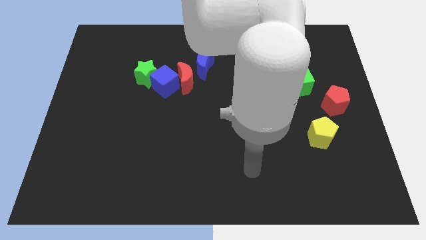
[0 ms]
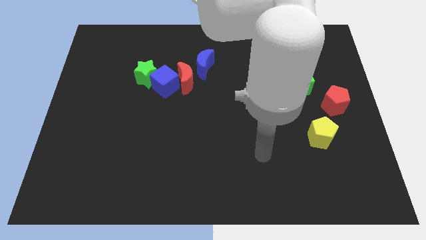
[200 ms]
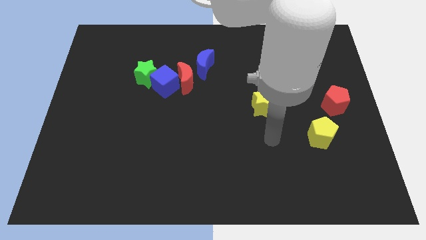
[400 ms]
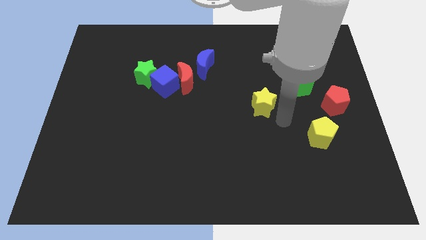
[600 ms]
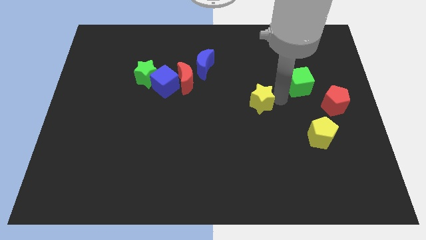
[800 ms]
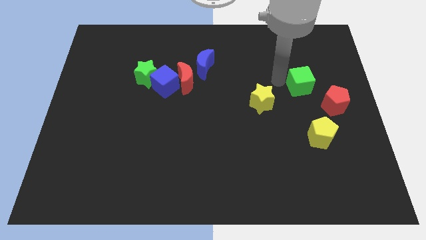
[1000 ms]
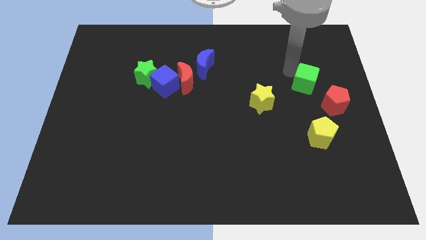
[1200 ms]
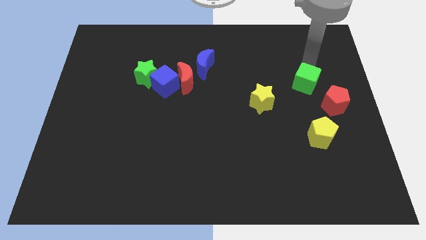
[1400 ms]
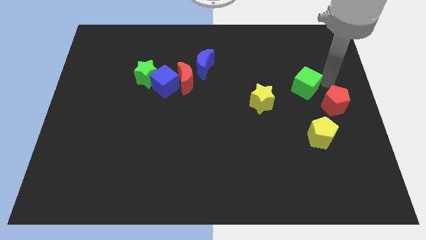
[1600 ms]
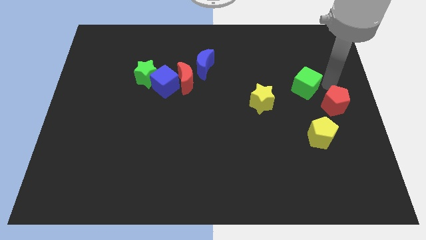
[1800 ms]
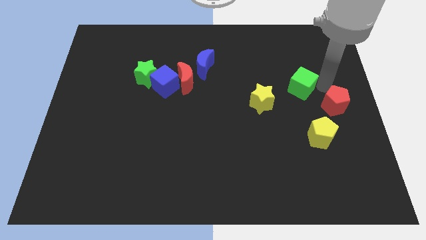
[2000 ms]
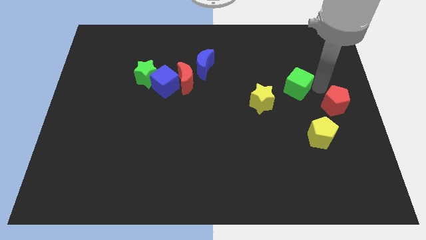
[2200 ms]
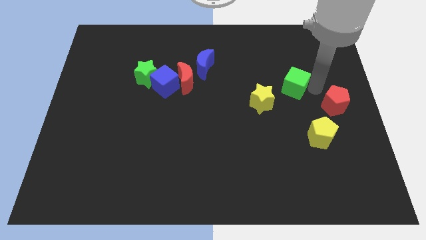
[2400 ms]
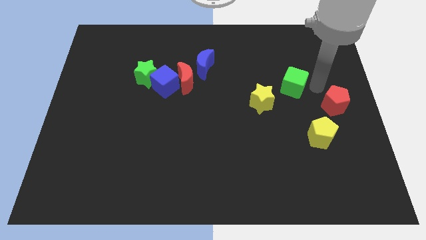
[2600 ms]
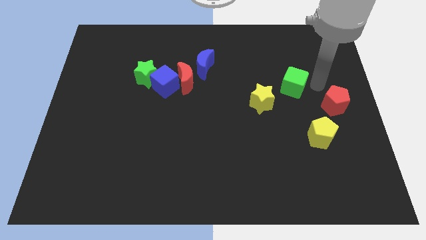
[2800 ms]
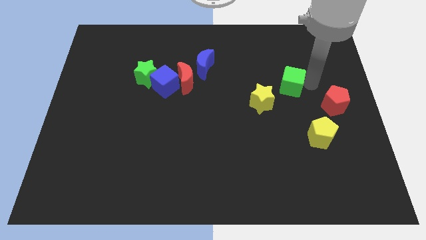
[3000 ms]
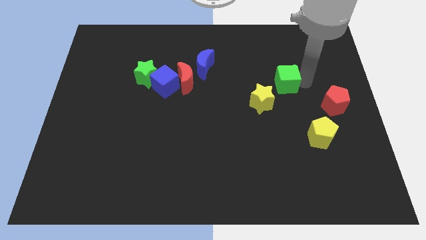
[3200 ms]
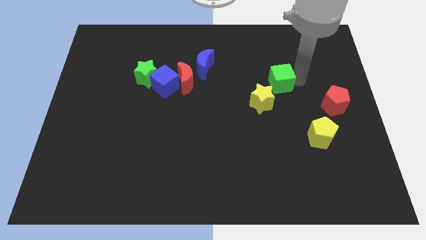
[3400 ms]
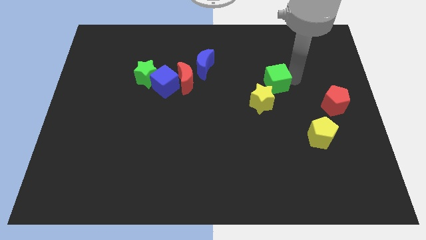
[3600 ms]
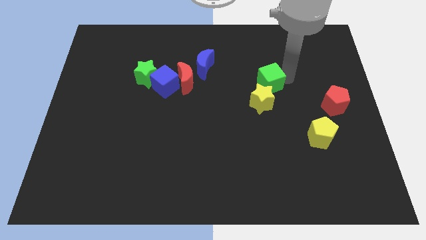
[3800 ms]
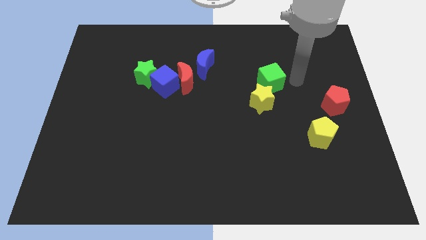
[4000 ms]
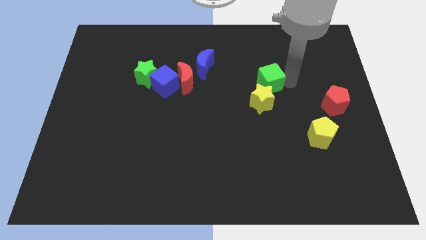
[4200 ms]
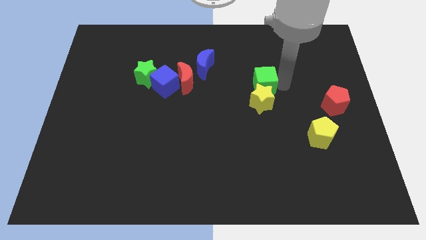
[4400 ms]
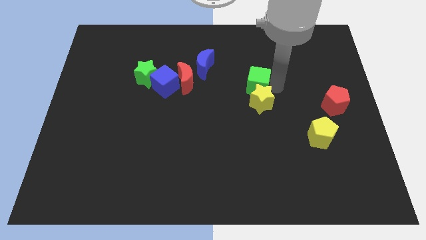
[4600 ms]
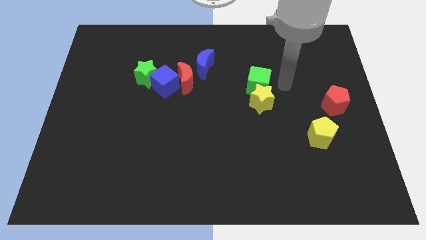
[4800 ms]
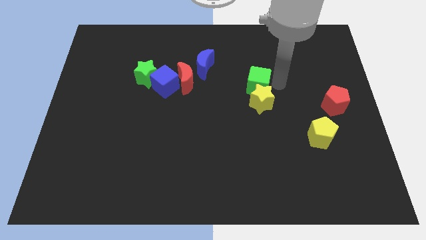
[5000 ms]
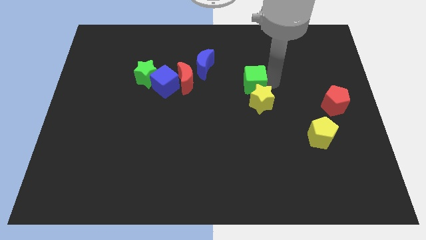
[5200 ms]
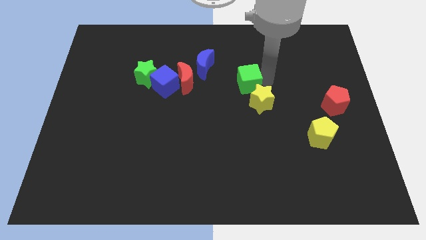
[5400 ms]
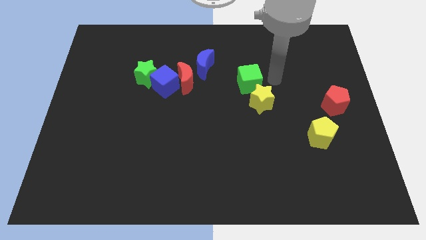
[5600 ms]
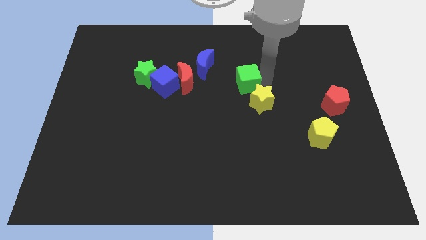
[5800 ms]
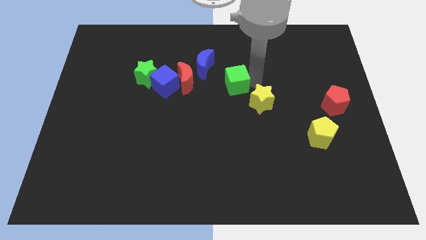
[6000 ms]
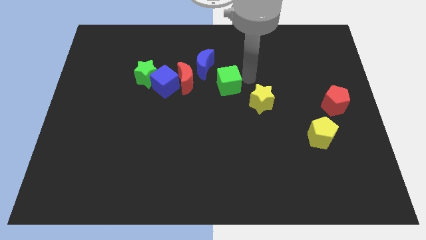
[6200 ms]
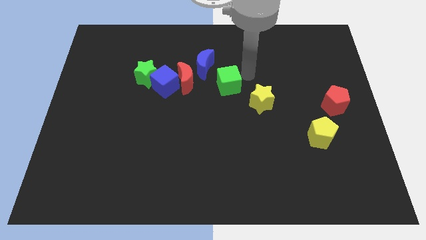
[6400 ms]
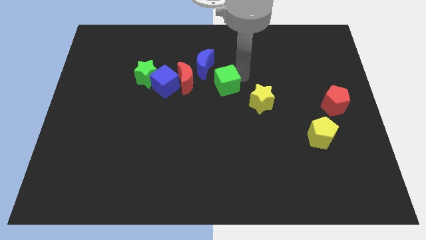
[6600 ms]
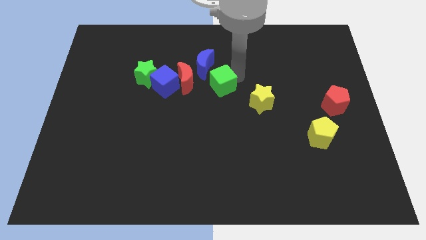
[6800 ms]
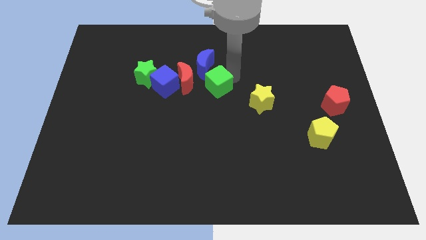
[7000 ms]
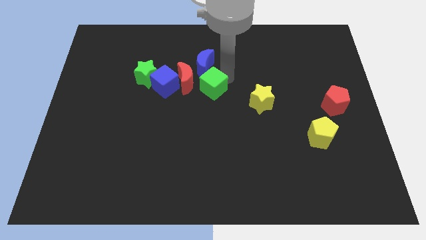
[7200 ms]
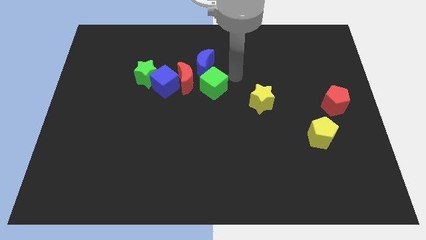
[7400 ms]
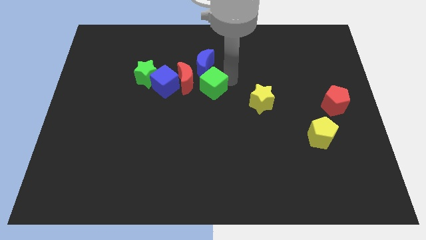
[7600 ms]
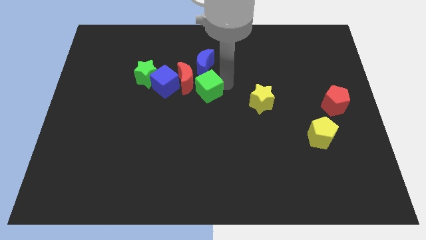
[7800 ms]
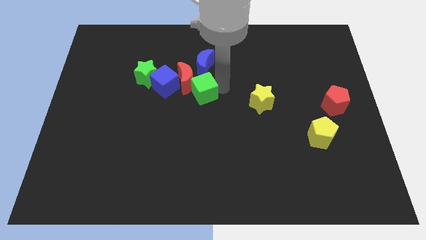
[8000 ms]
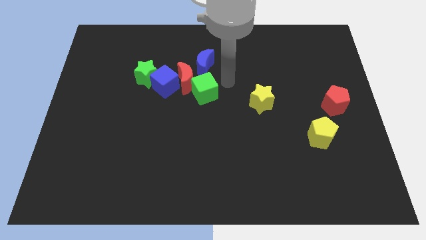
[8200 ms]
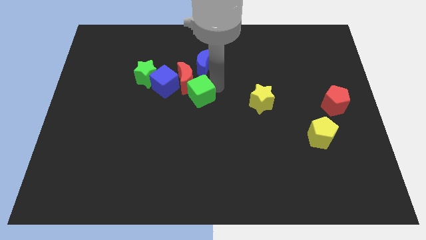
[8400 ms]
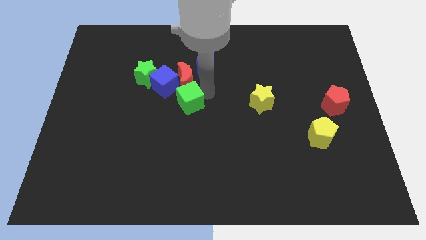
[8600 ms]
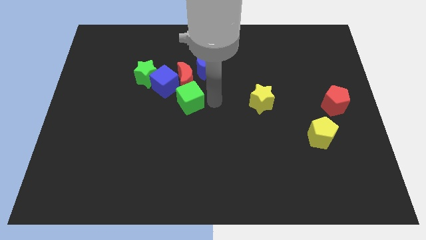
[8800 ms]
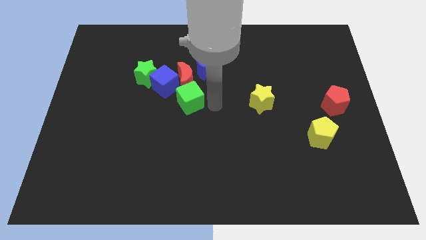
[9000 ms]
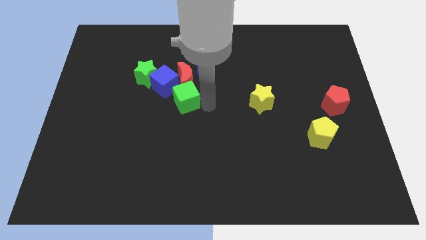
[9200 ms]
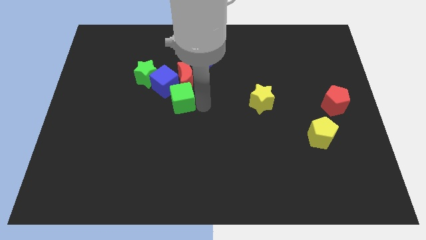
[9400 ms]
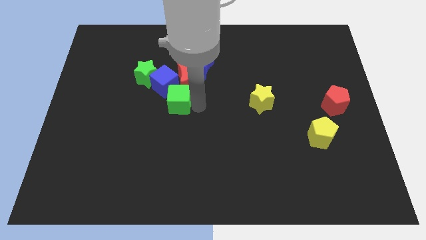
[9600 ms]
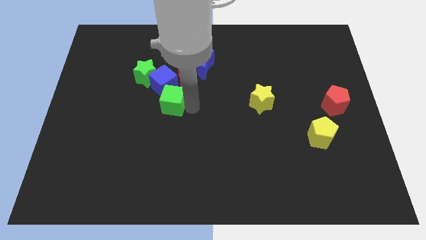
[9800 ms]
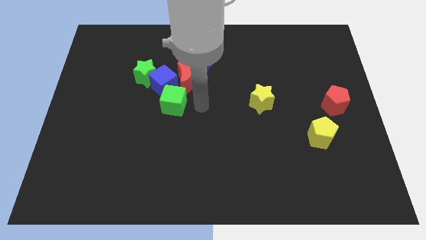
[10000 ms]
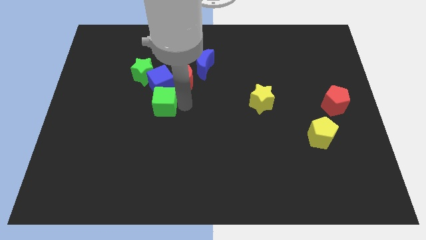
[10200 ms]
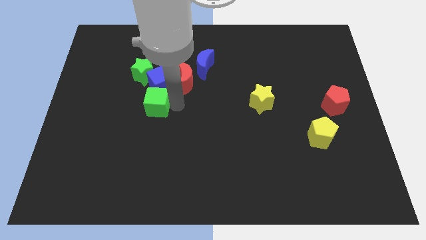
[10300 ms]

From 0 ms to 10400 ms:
slide the green cube diagonally down and to the left of the blue cube

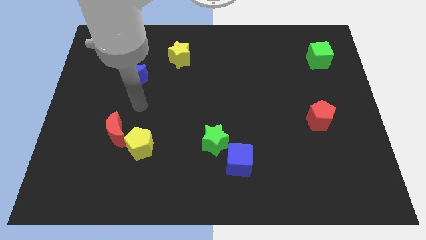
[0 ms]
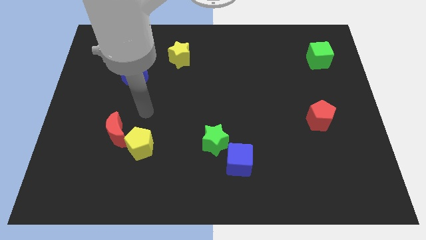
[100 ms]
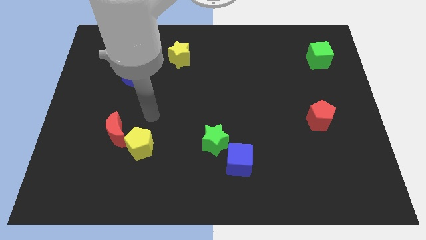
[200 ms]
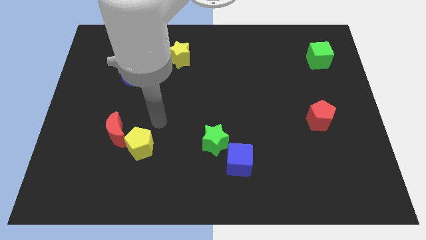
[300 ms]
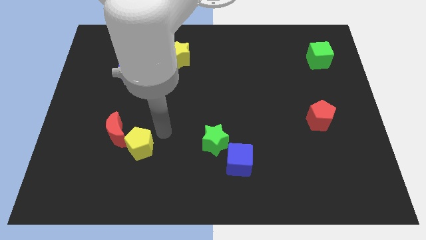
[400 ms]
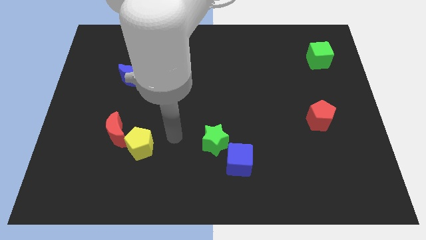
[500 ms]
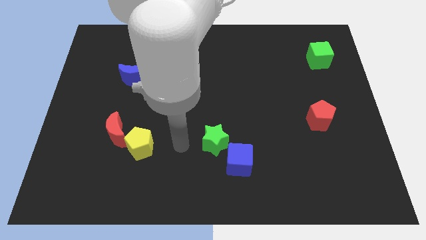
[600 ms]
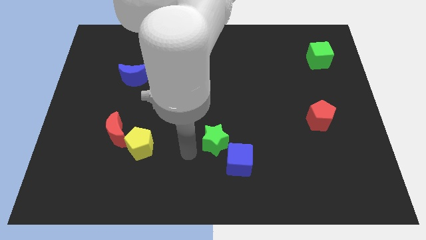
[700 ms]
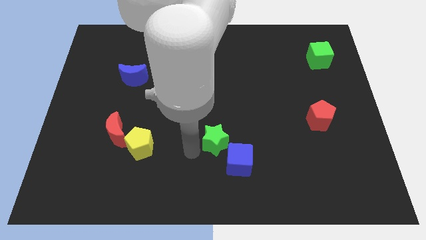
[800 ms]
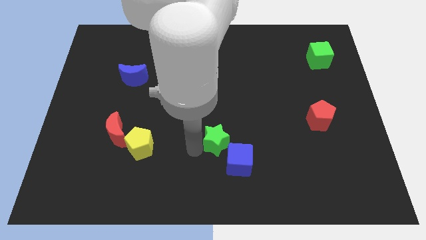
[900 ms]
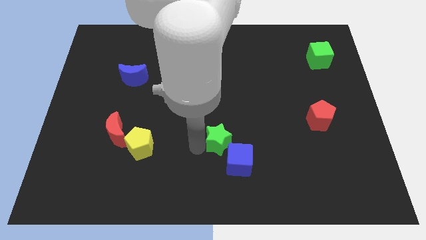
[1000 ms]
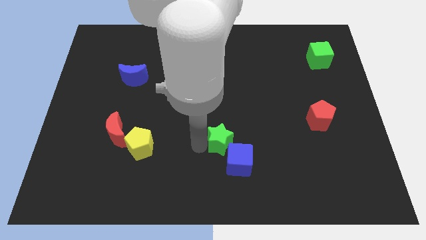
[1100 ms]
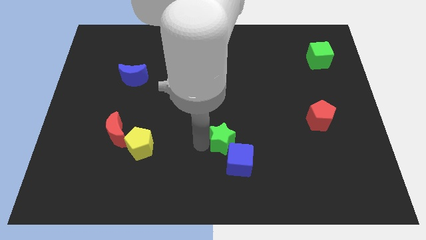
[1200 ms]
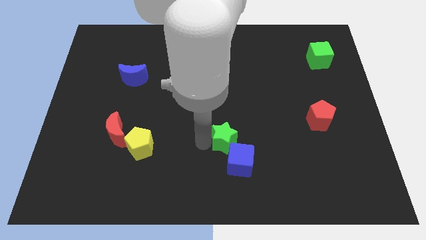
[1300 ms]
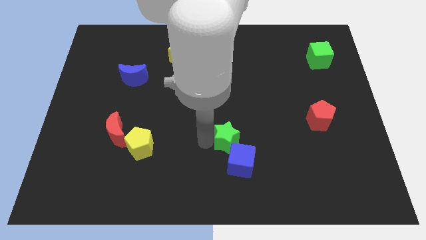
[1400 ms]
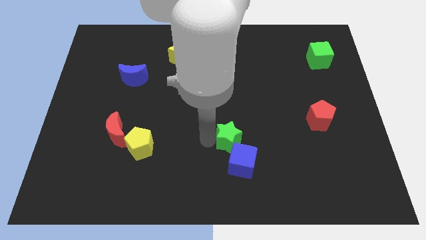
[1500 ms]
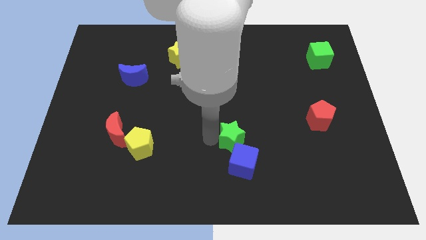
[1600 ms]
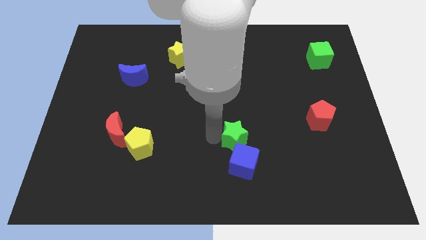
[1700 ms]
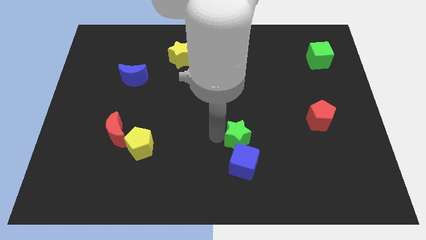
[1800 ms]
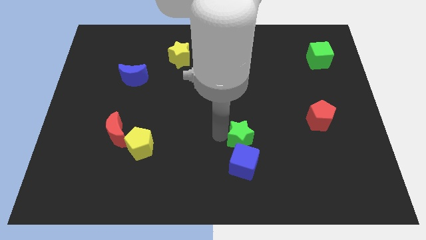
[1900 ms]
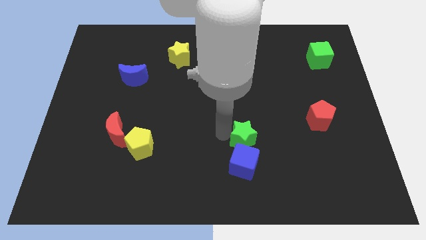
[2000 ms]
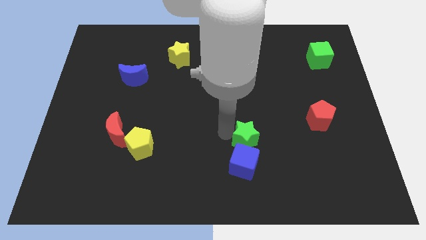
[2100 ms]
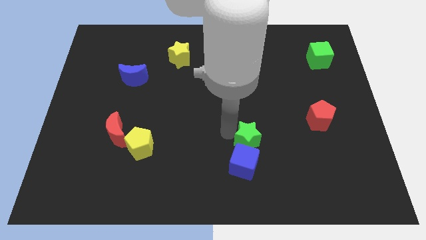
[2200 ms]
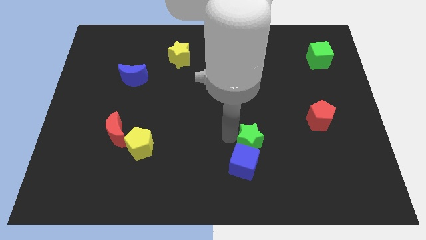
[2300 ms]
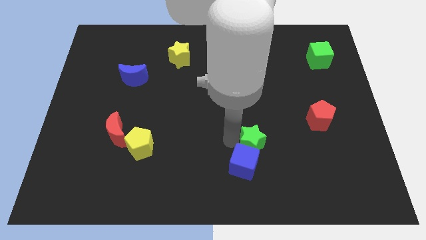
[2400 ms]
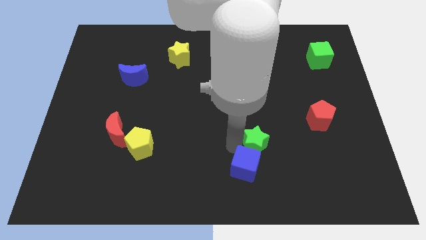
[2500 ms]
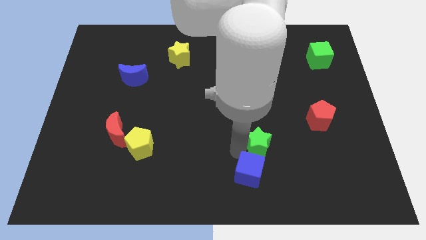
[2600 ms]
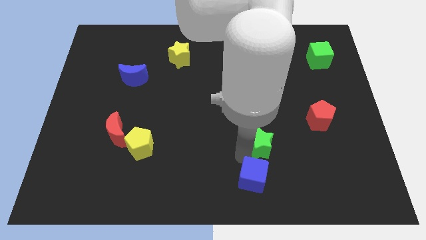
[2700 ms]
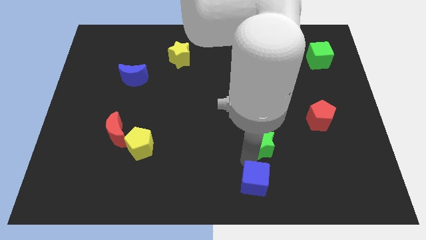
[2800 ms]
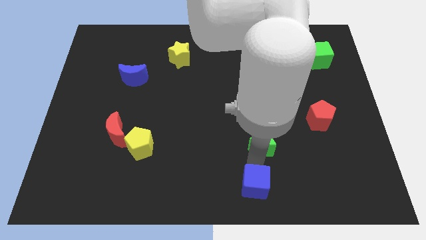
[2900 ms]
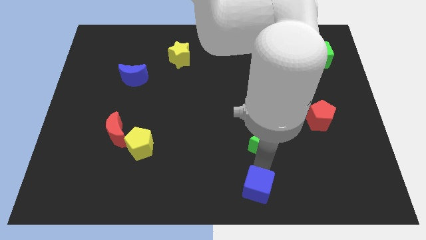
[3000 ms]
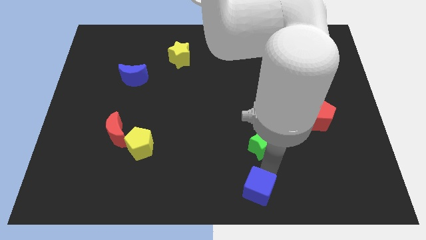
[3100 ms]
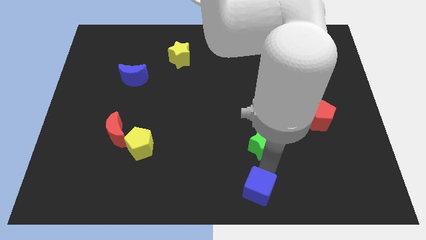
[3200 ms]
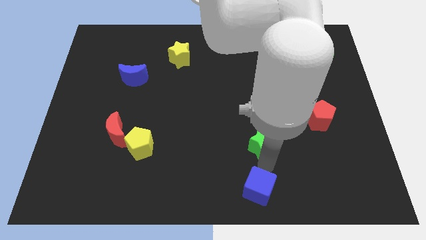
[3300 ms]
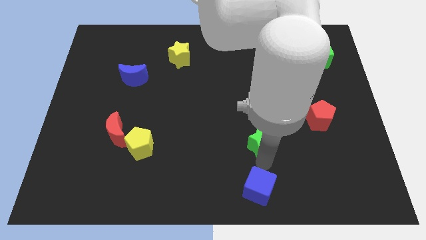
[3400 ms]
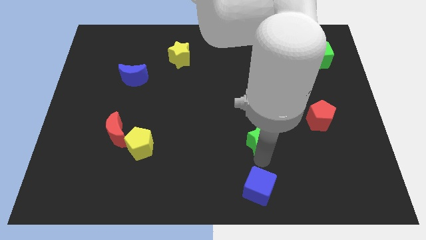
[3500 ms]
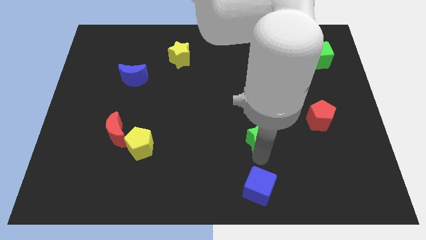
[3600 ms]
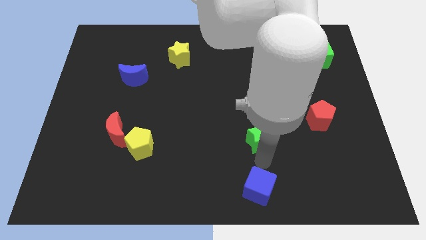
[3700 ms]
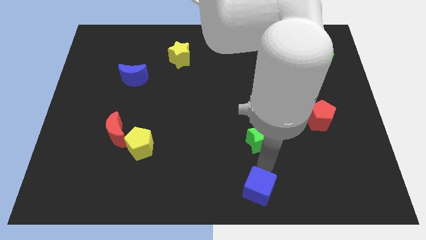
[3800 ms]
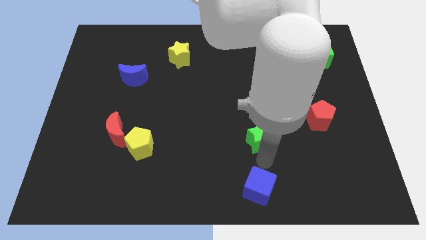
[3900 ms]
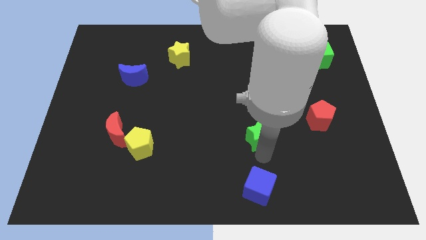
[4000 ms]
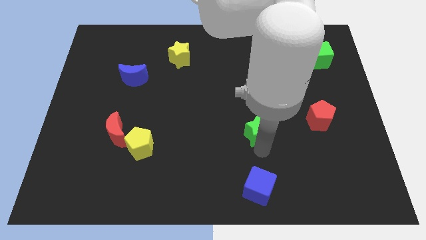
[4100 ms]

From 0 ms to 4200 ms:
push the green star left of the red pentagon
